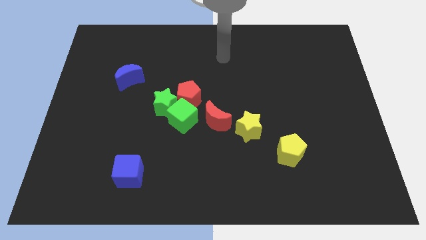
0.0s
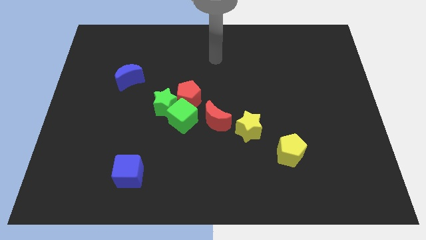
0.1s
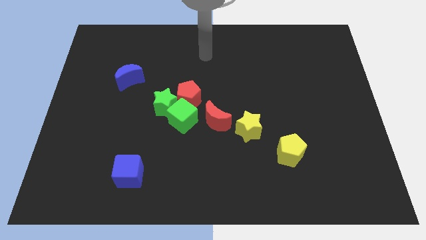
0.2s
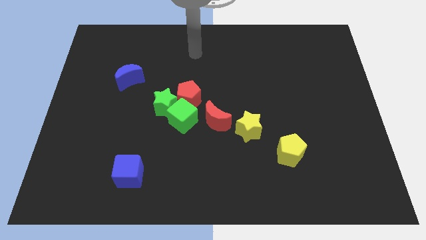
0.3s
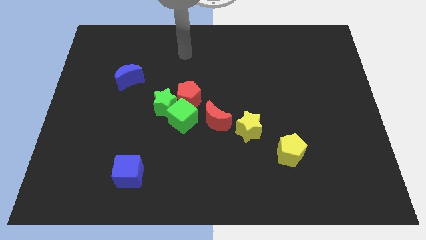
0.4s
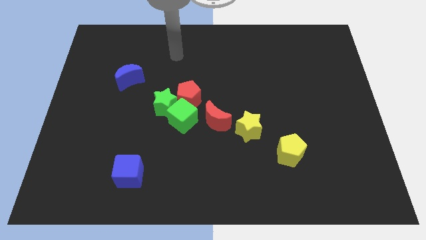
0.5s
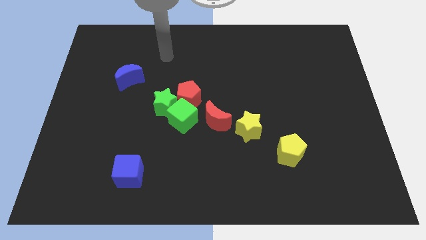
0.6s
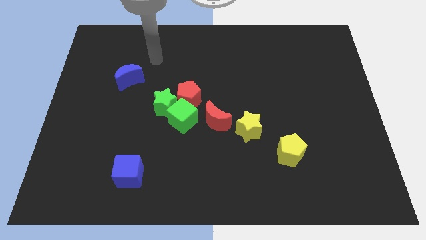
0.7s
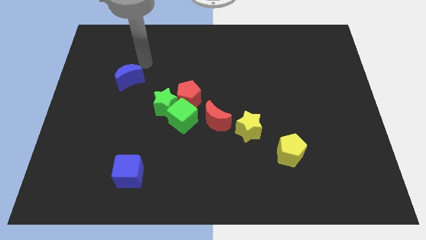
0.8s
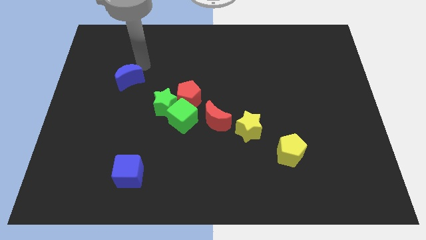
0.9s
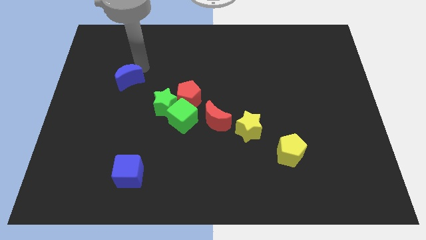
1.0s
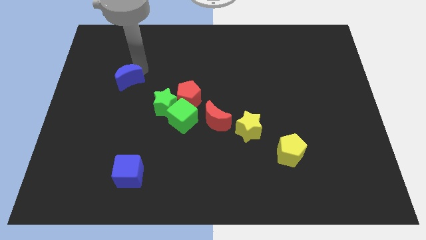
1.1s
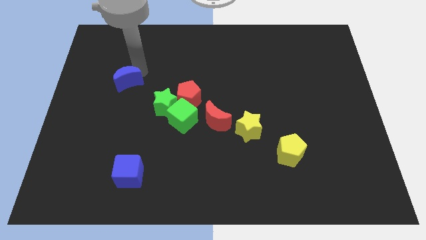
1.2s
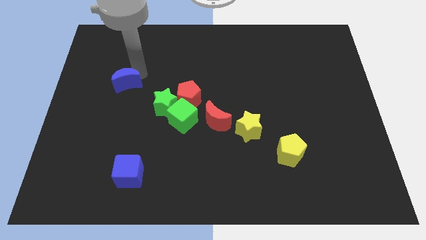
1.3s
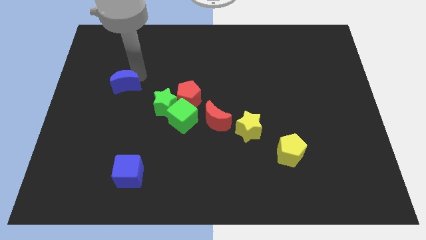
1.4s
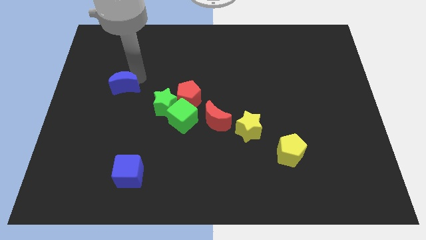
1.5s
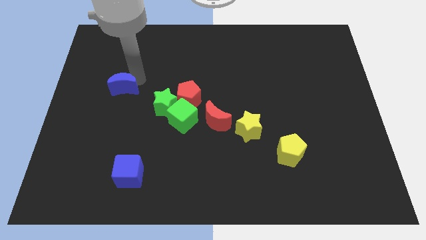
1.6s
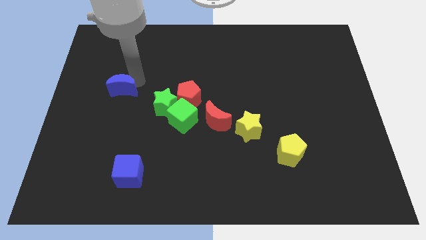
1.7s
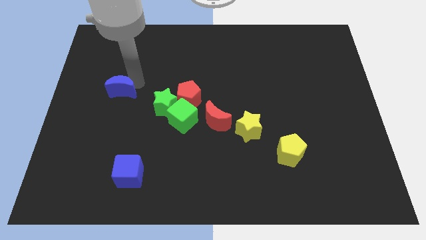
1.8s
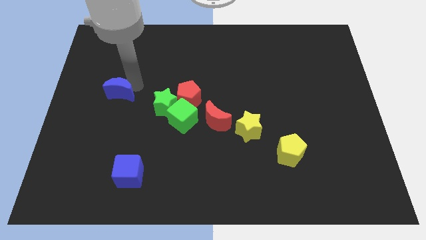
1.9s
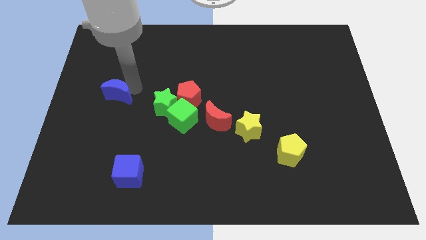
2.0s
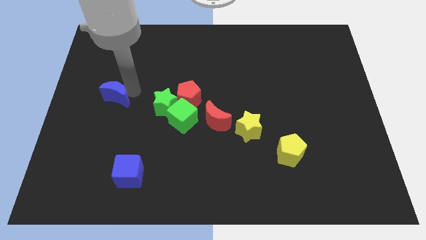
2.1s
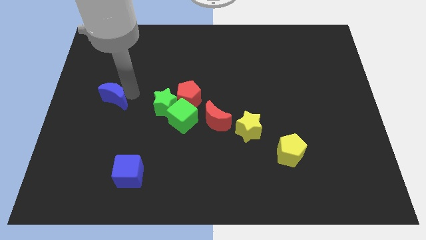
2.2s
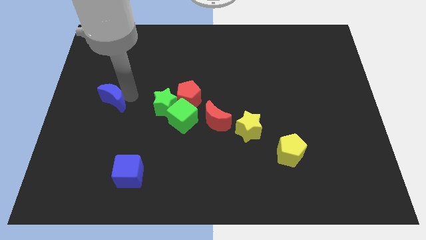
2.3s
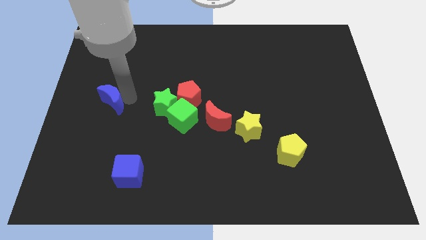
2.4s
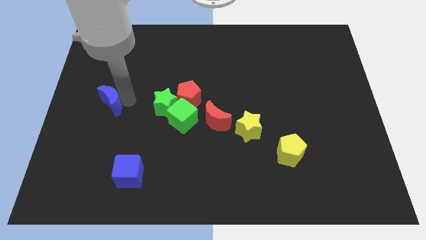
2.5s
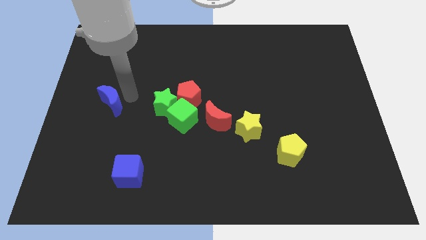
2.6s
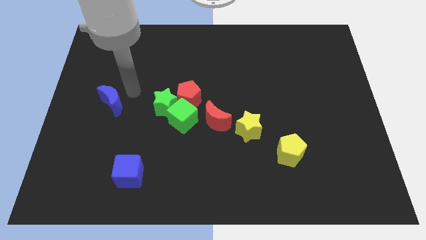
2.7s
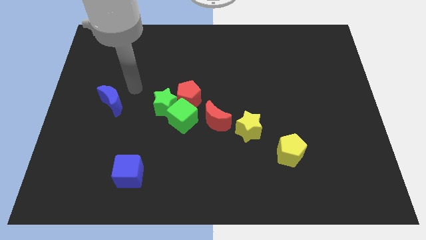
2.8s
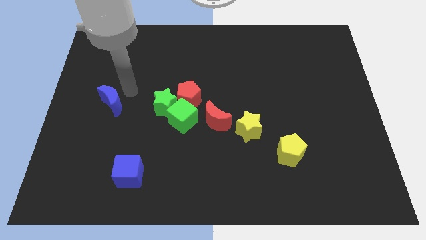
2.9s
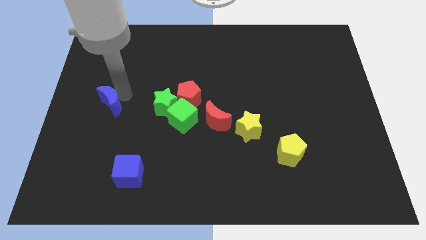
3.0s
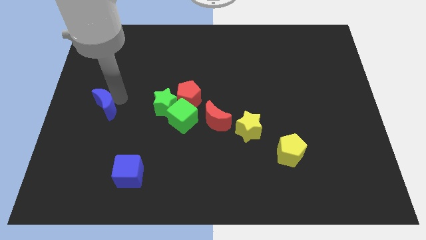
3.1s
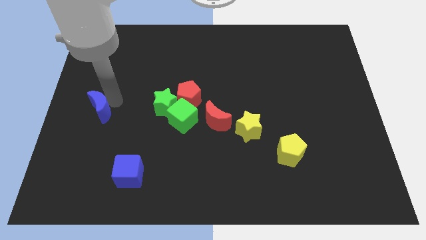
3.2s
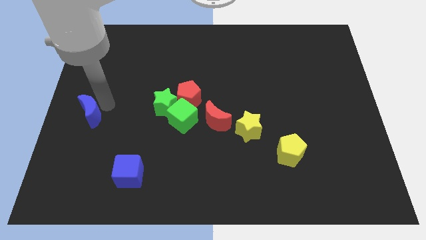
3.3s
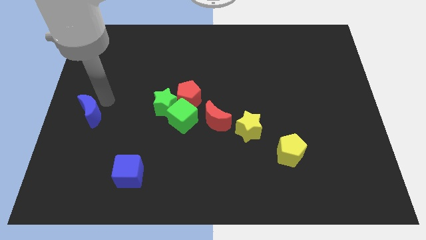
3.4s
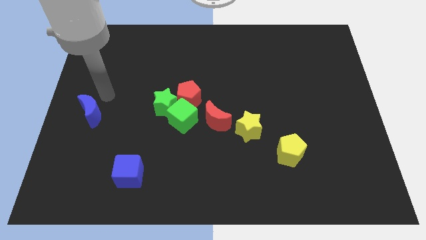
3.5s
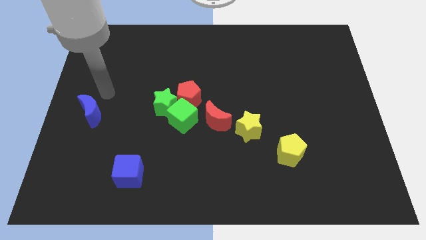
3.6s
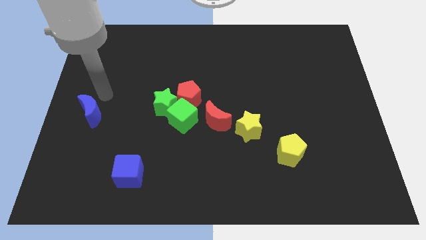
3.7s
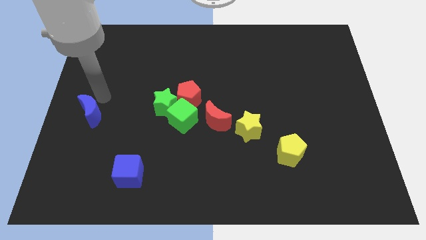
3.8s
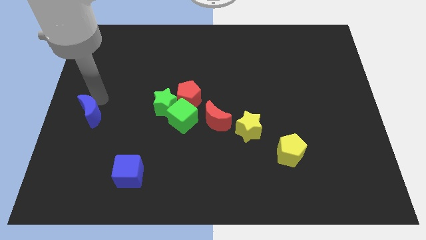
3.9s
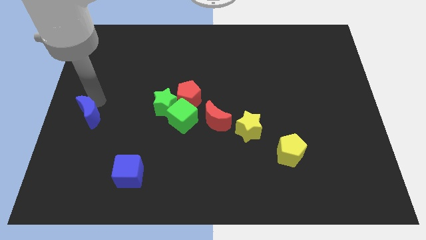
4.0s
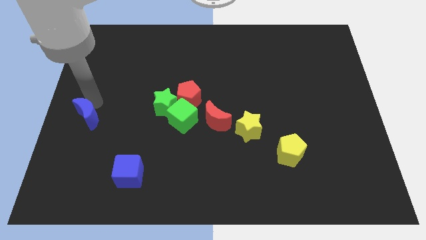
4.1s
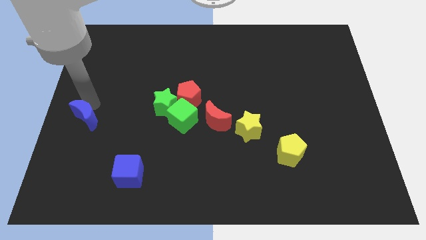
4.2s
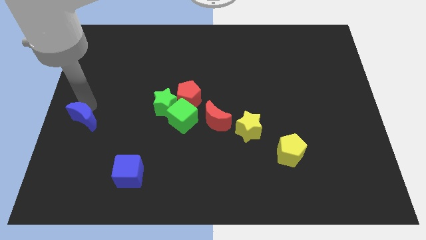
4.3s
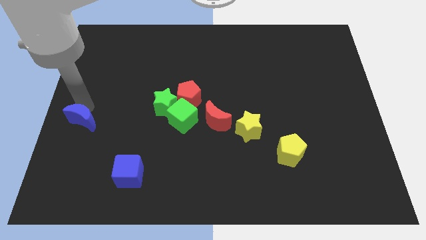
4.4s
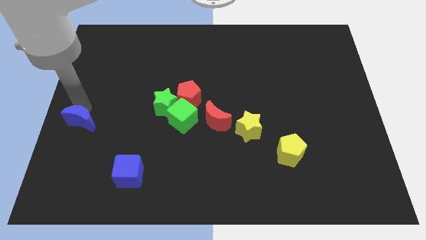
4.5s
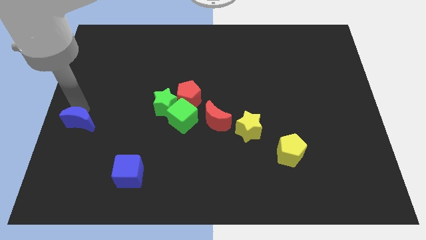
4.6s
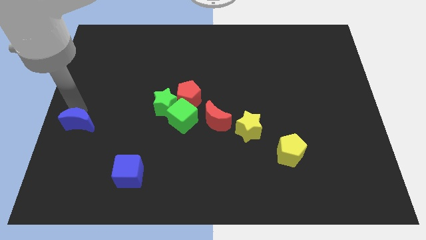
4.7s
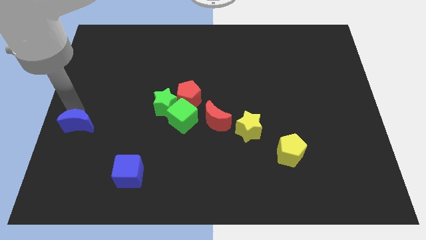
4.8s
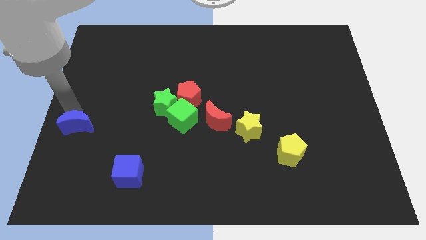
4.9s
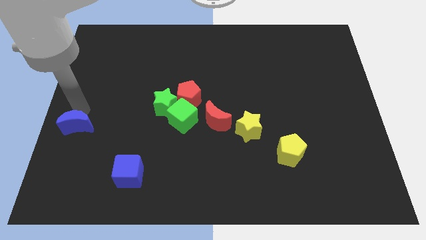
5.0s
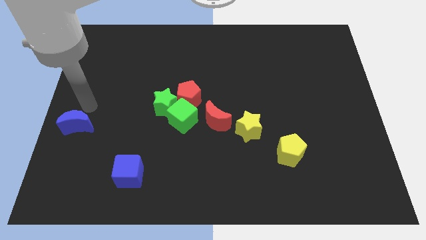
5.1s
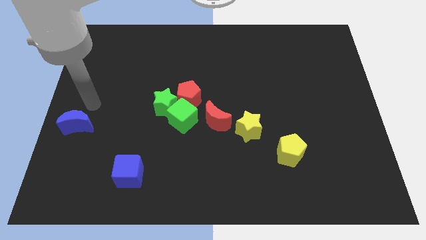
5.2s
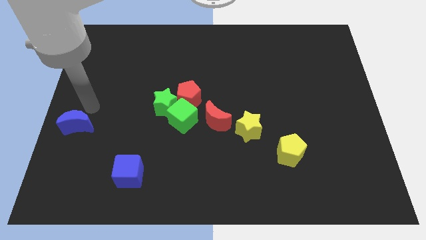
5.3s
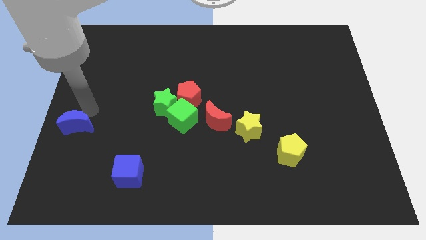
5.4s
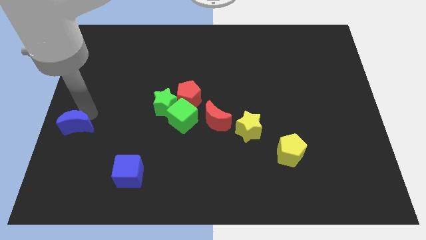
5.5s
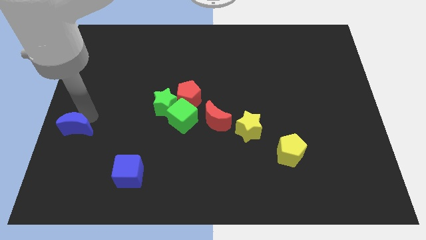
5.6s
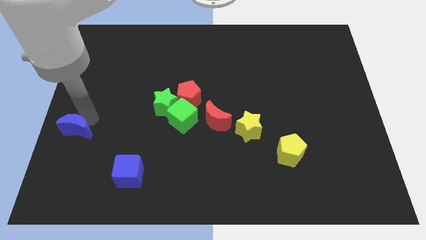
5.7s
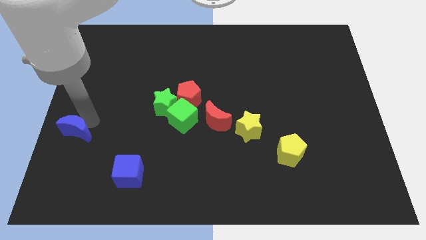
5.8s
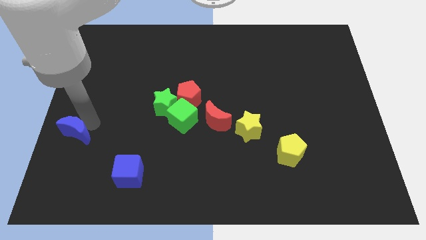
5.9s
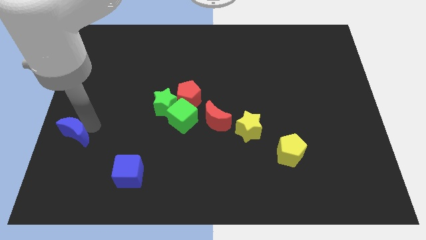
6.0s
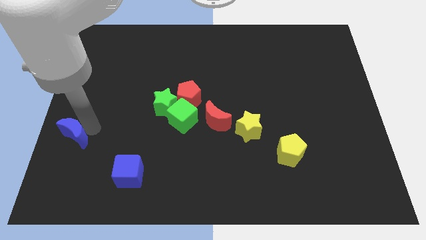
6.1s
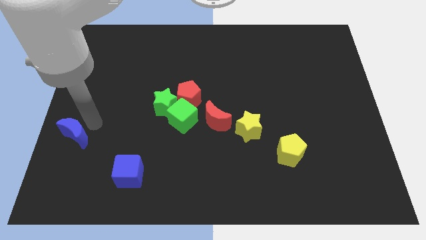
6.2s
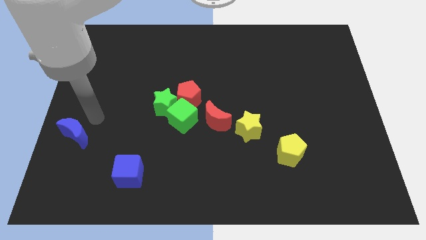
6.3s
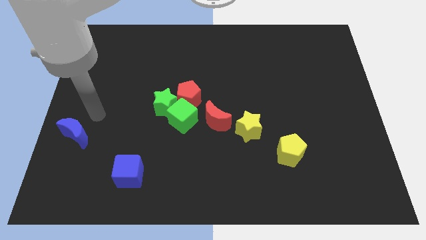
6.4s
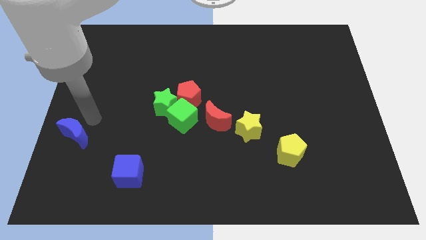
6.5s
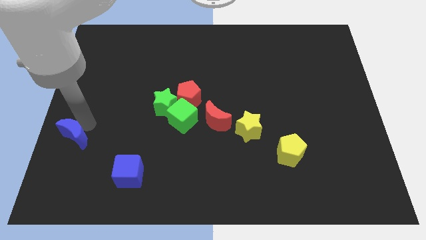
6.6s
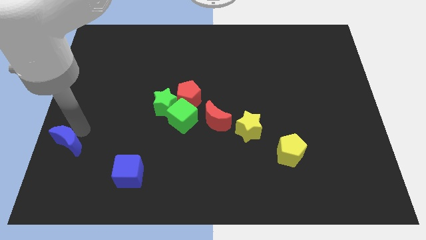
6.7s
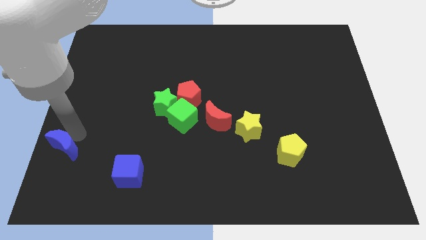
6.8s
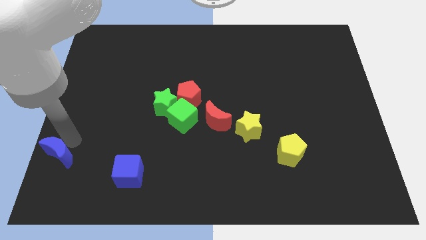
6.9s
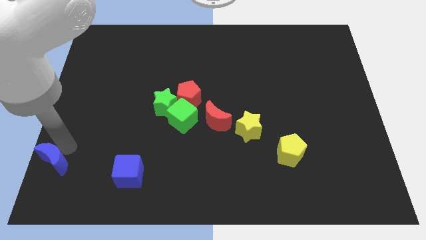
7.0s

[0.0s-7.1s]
put the blue moon to the bottom left
